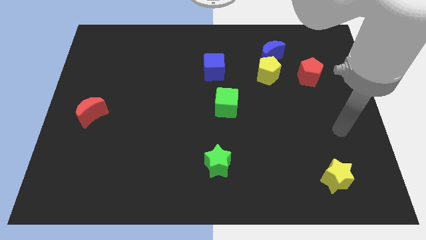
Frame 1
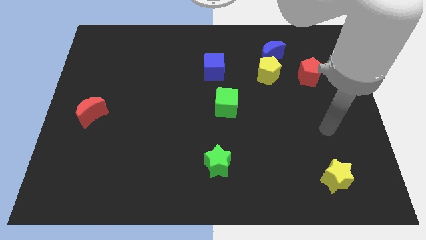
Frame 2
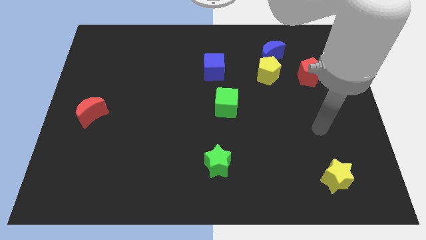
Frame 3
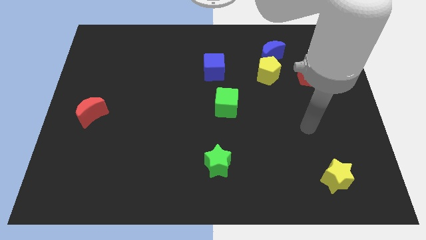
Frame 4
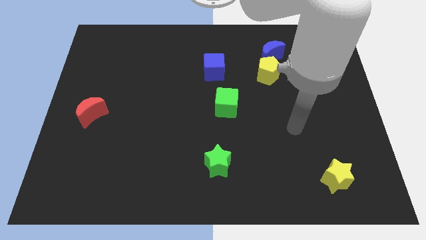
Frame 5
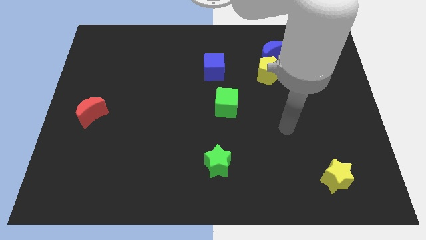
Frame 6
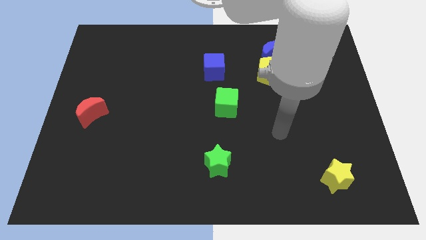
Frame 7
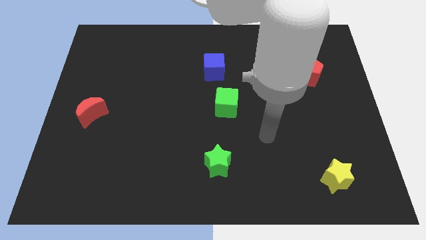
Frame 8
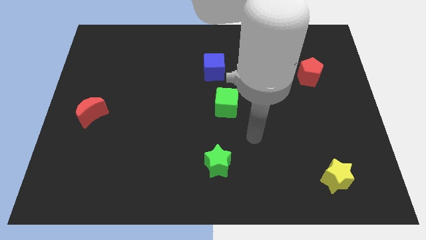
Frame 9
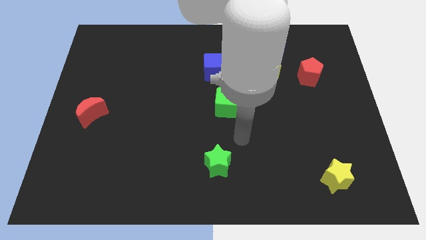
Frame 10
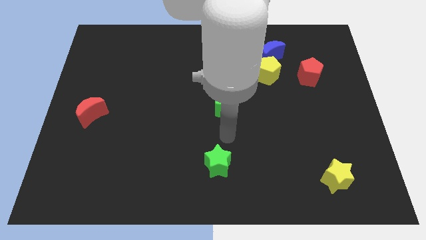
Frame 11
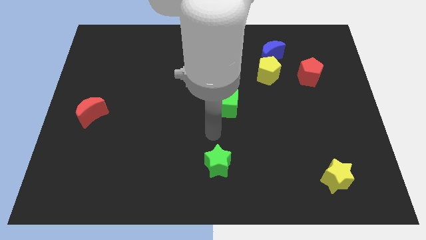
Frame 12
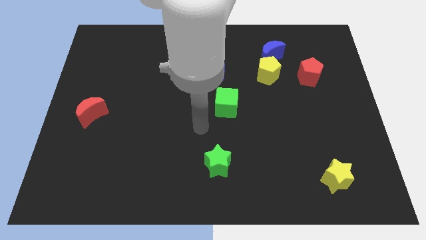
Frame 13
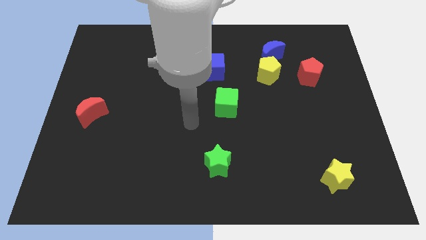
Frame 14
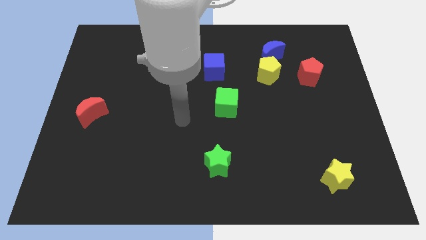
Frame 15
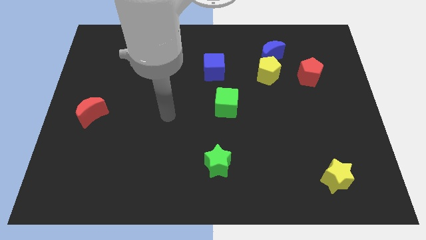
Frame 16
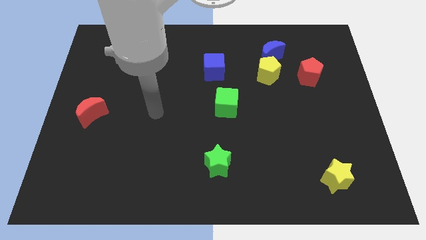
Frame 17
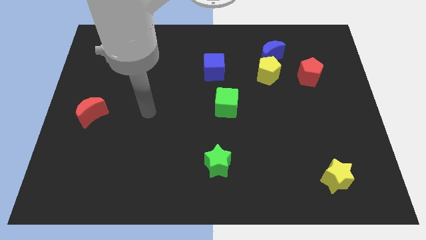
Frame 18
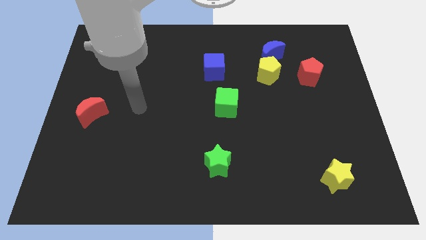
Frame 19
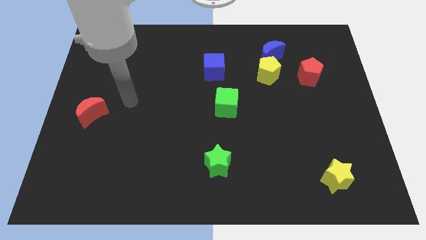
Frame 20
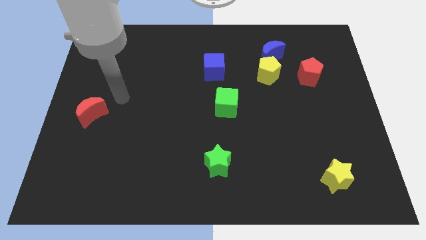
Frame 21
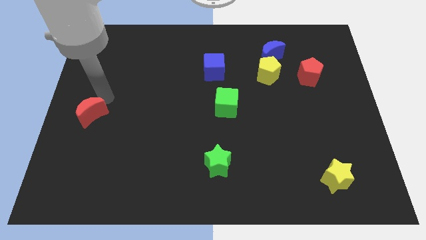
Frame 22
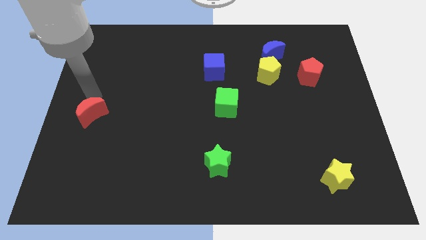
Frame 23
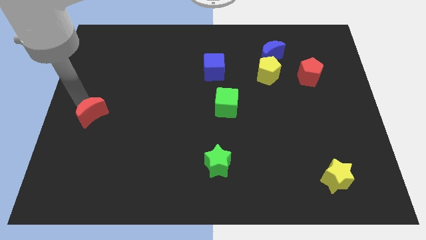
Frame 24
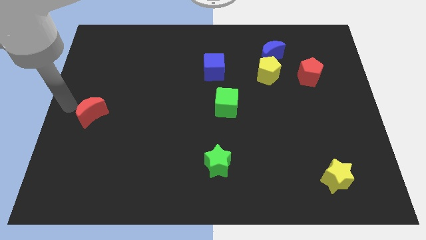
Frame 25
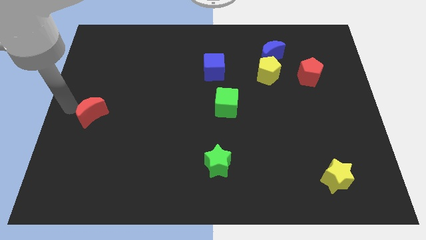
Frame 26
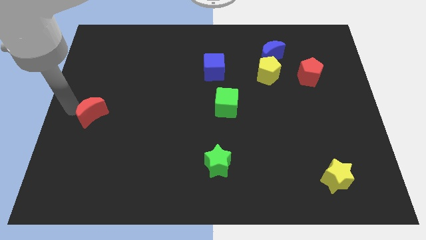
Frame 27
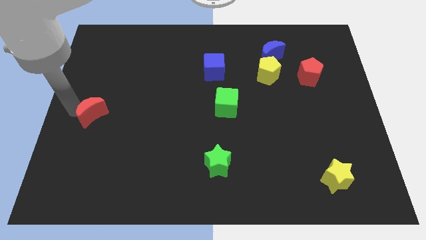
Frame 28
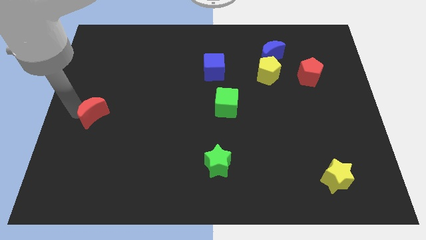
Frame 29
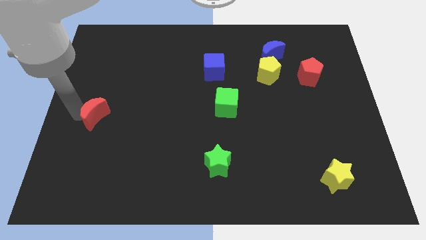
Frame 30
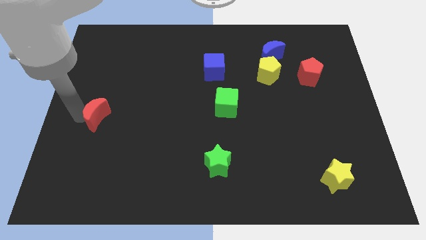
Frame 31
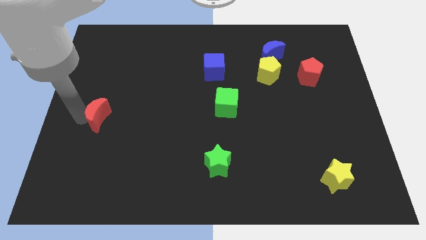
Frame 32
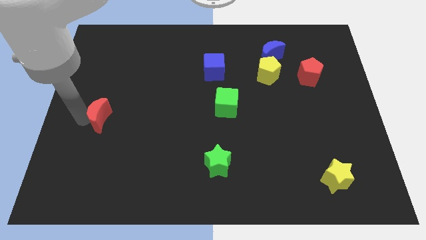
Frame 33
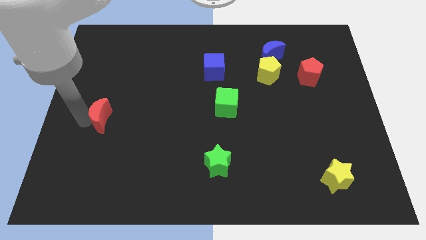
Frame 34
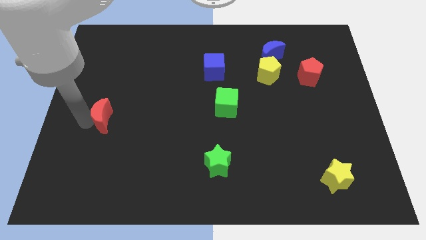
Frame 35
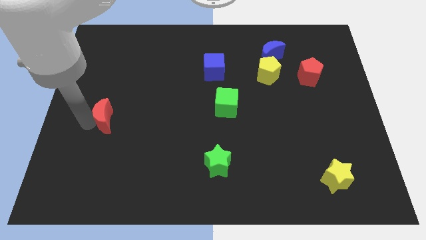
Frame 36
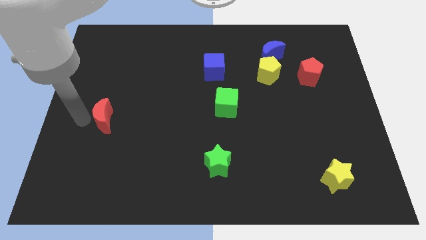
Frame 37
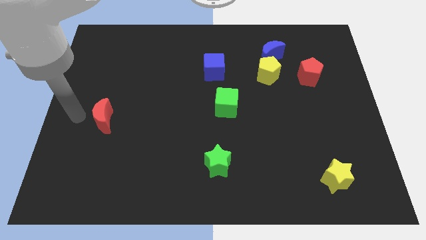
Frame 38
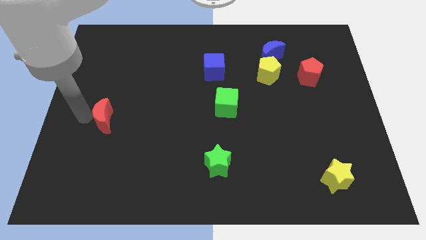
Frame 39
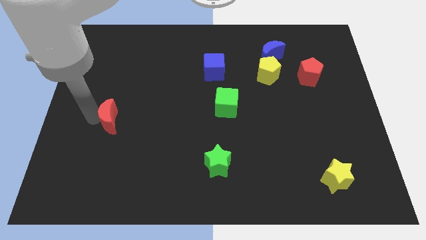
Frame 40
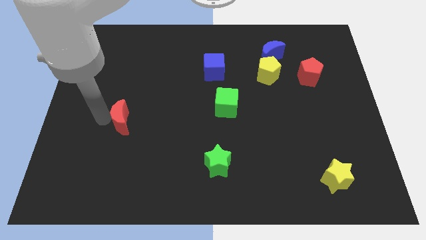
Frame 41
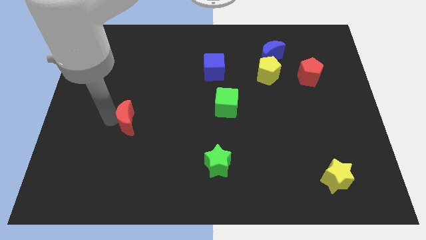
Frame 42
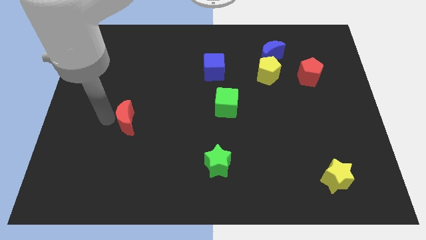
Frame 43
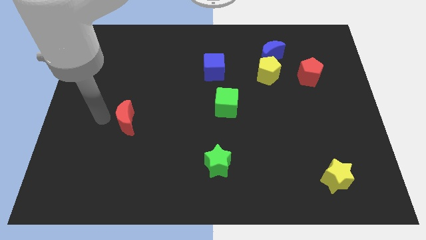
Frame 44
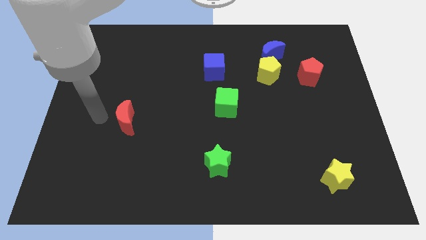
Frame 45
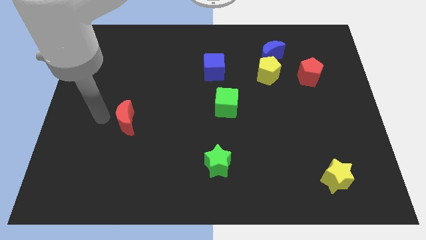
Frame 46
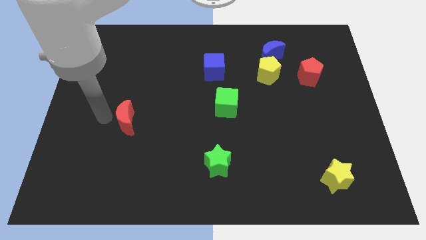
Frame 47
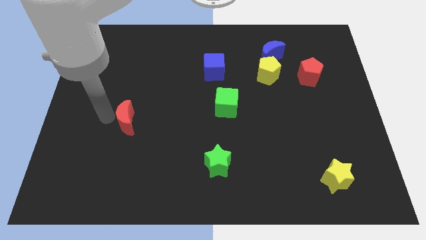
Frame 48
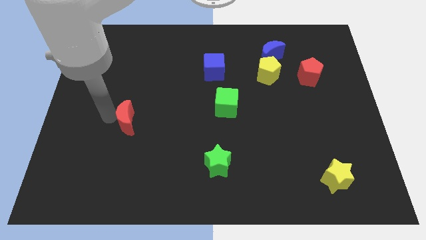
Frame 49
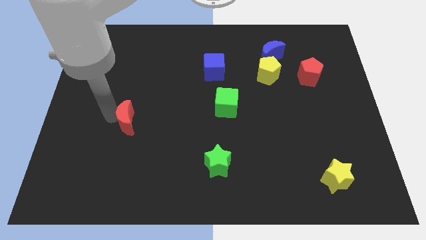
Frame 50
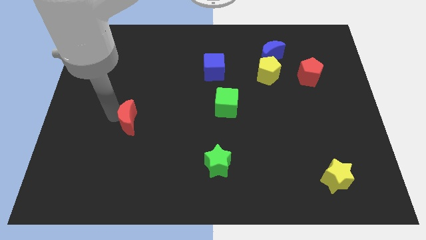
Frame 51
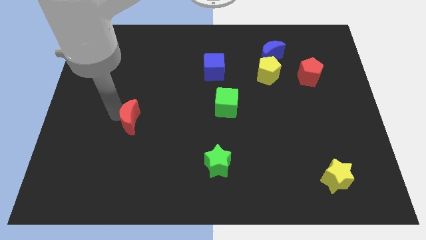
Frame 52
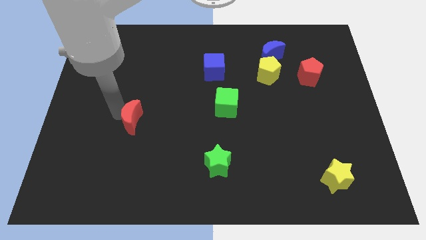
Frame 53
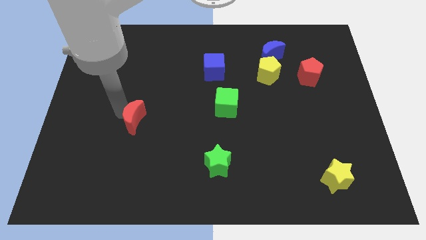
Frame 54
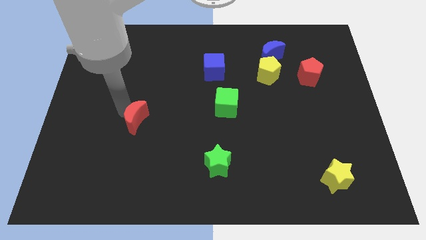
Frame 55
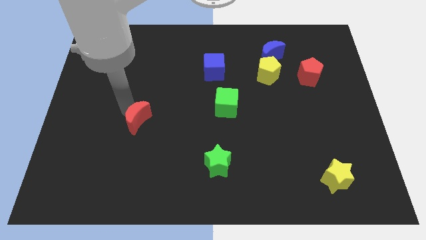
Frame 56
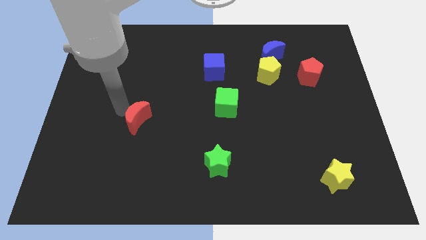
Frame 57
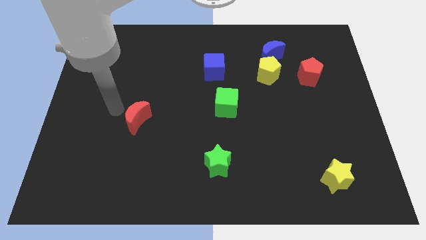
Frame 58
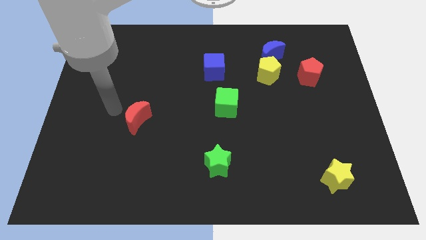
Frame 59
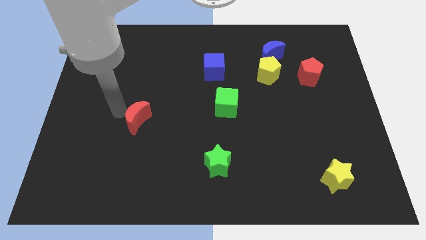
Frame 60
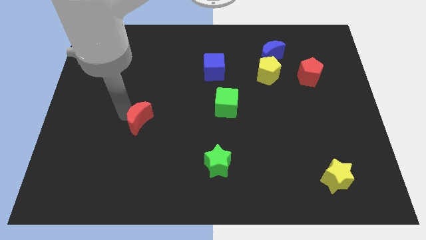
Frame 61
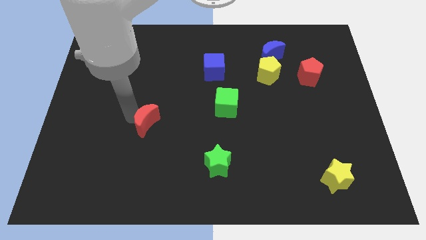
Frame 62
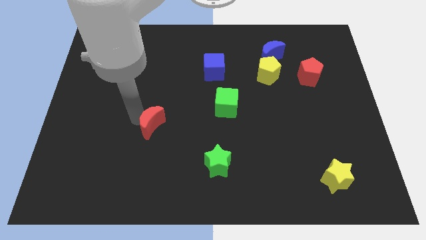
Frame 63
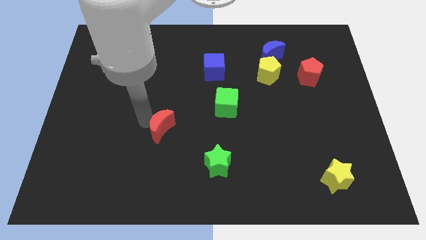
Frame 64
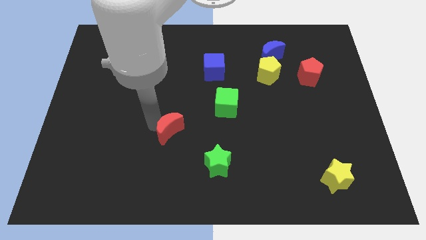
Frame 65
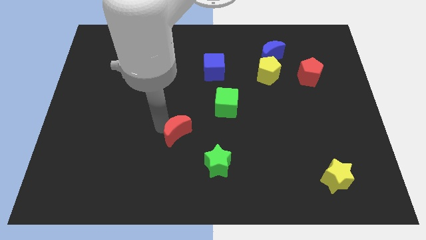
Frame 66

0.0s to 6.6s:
slide the red moon to the top left of the green star
